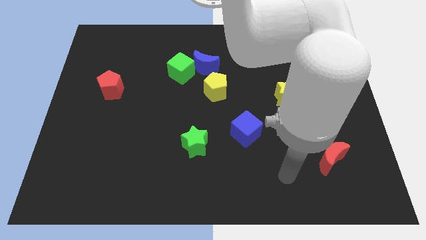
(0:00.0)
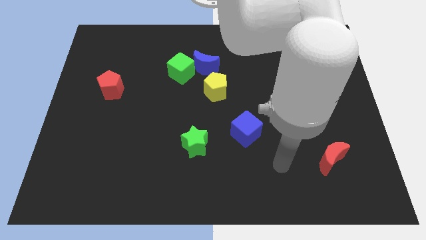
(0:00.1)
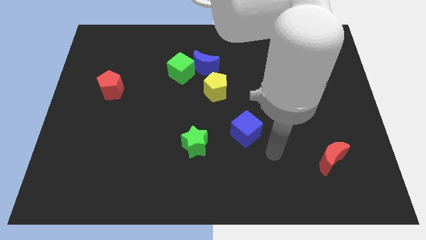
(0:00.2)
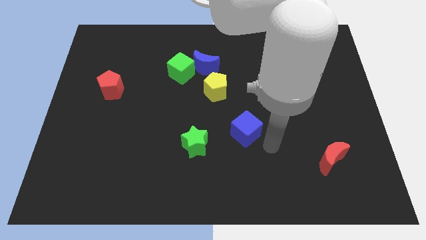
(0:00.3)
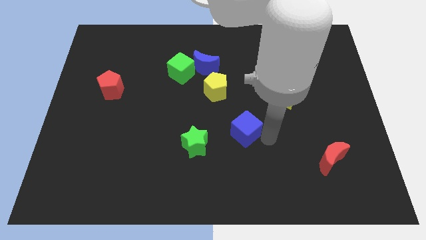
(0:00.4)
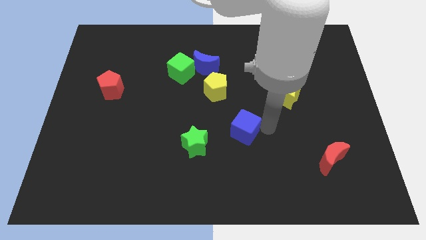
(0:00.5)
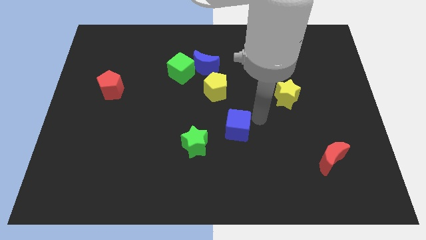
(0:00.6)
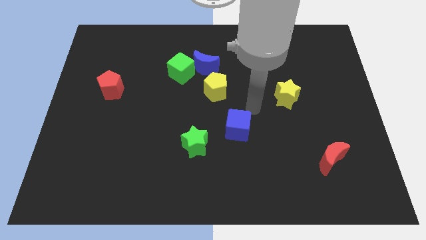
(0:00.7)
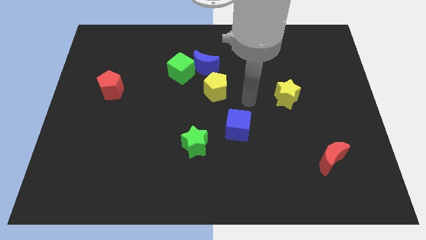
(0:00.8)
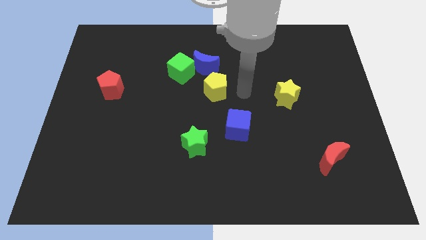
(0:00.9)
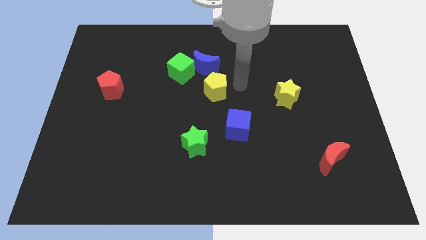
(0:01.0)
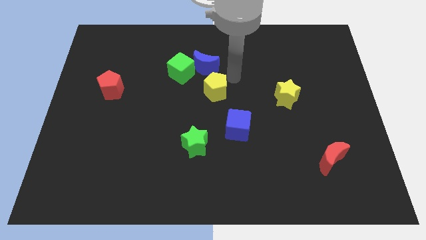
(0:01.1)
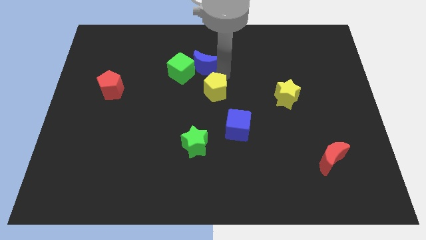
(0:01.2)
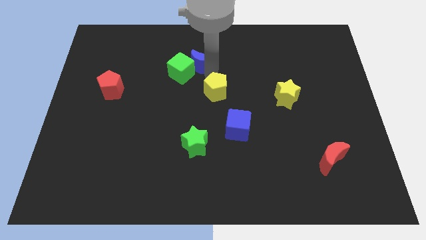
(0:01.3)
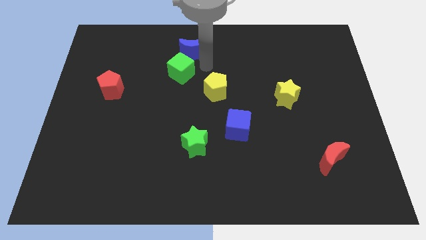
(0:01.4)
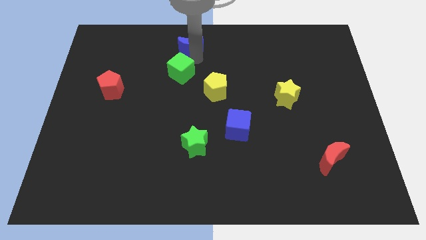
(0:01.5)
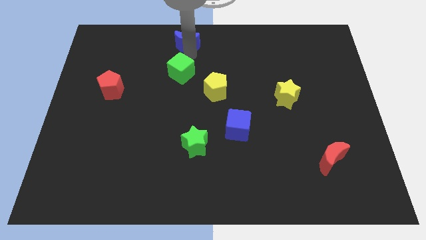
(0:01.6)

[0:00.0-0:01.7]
separate the green cube from the blue moon

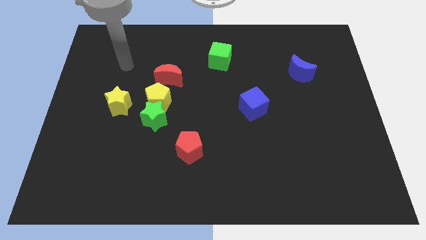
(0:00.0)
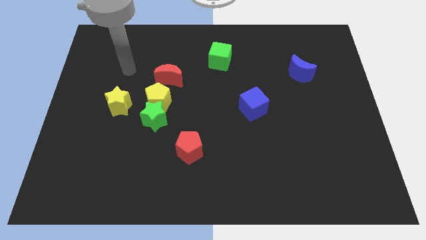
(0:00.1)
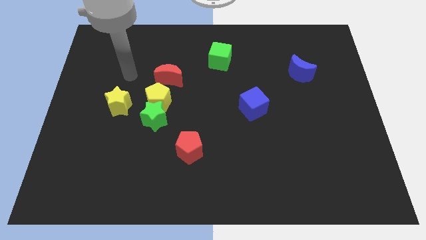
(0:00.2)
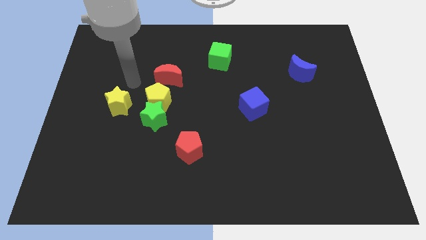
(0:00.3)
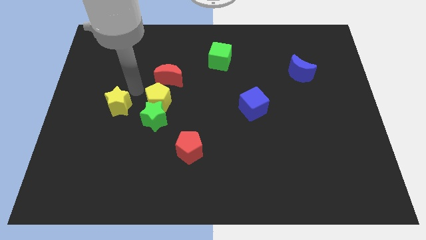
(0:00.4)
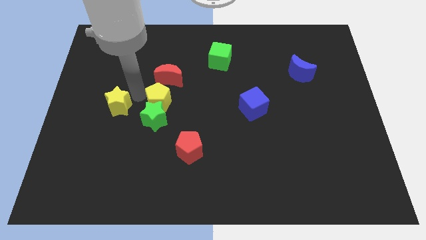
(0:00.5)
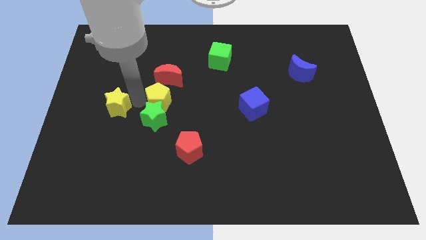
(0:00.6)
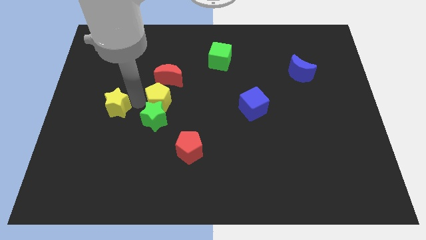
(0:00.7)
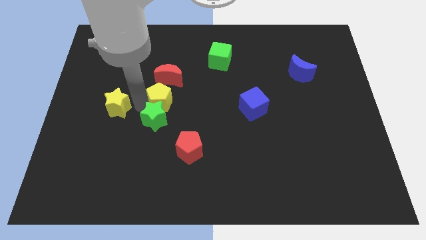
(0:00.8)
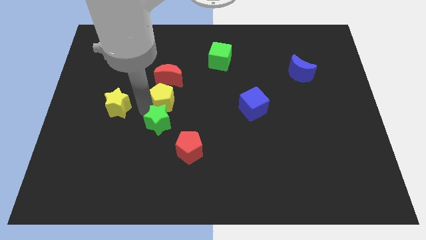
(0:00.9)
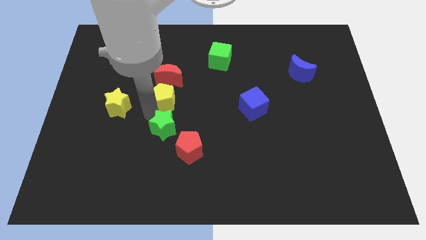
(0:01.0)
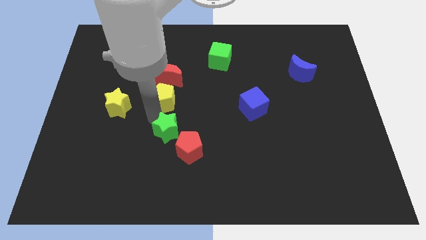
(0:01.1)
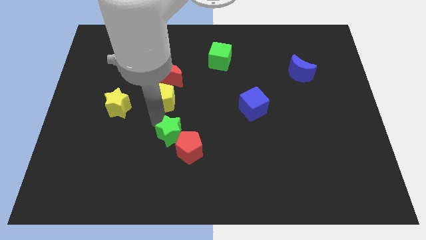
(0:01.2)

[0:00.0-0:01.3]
separate the green star from the yellow pentagon and yellow star

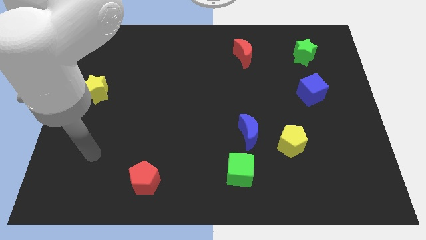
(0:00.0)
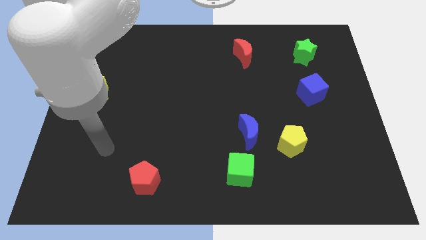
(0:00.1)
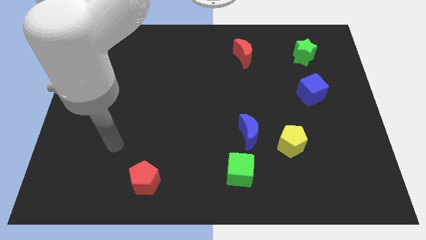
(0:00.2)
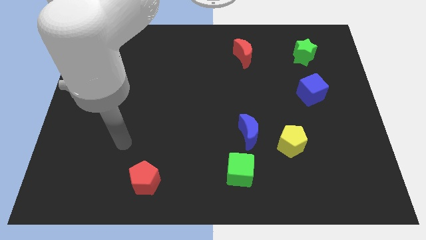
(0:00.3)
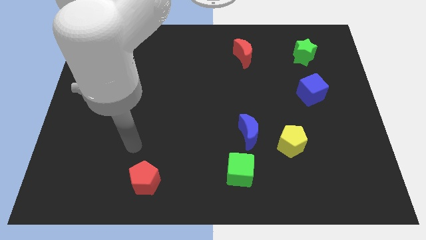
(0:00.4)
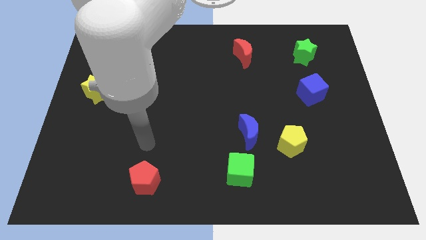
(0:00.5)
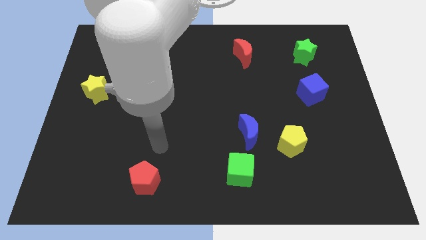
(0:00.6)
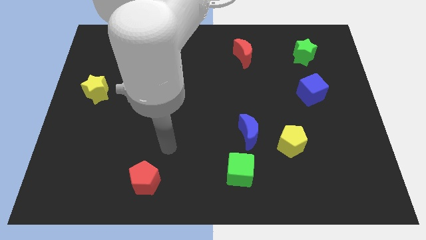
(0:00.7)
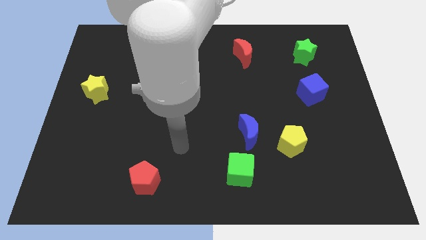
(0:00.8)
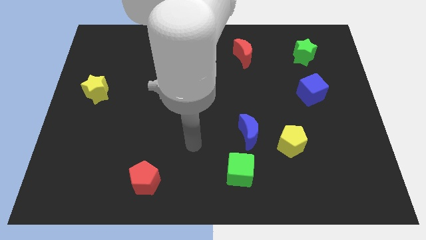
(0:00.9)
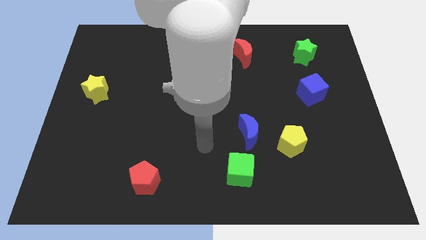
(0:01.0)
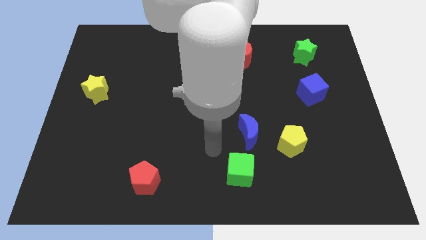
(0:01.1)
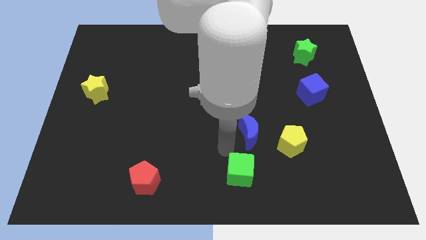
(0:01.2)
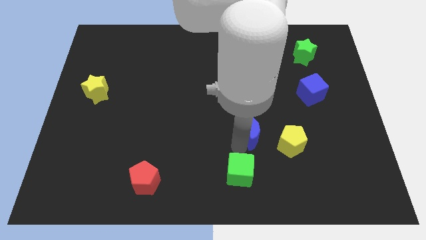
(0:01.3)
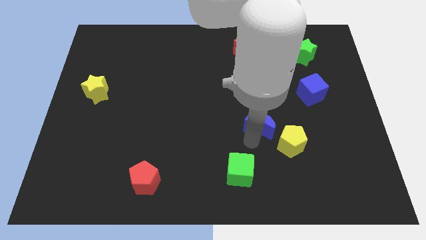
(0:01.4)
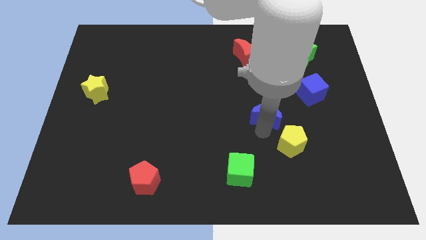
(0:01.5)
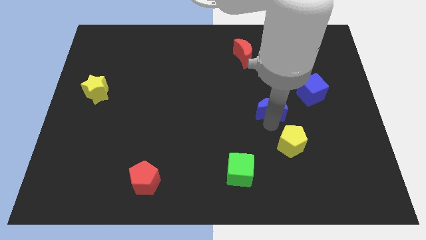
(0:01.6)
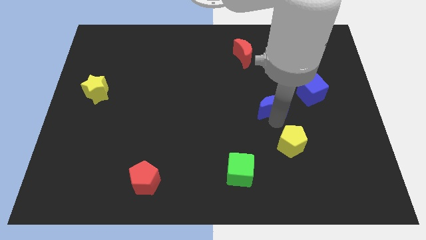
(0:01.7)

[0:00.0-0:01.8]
separate the yellow pentagon from the blue moon

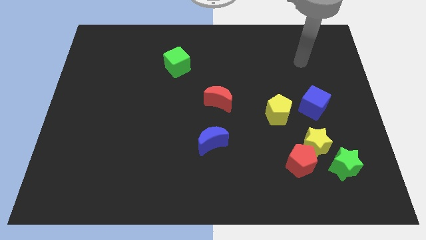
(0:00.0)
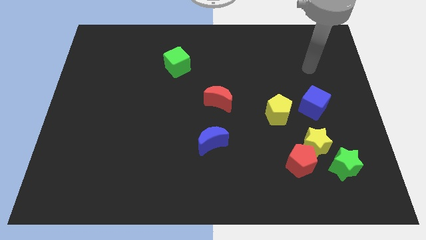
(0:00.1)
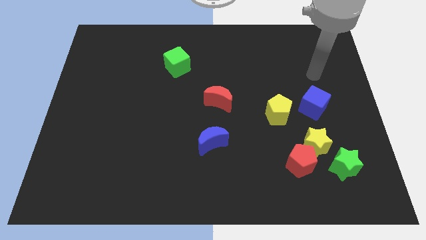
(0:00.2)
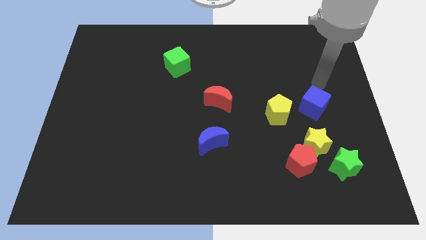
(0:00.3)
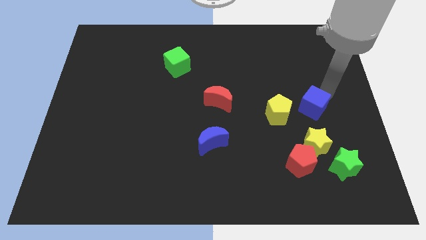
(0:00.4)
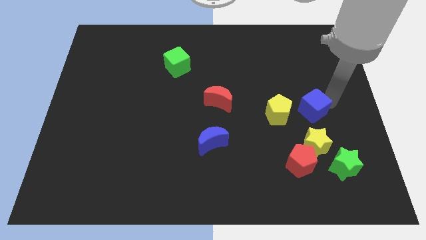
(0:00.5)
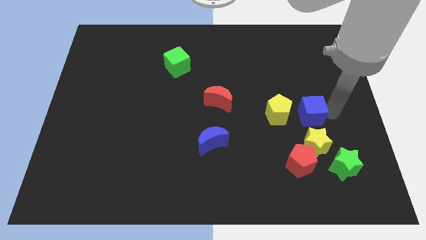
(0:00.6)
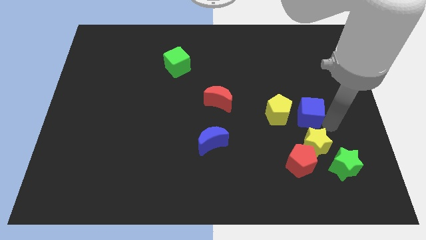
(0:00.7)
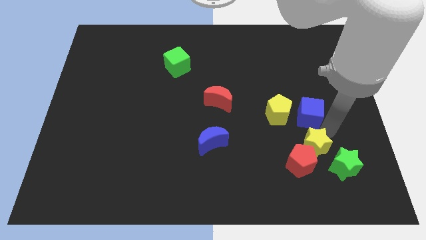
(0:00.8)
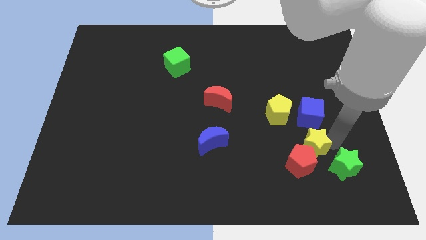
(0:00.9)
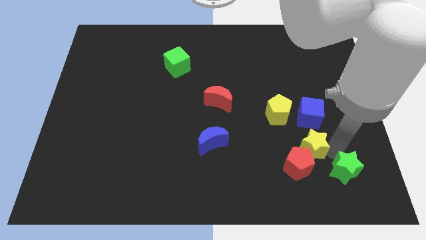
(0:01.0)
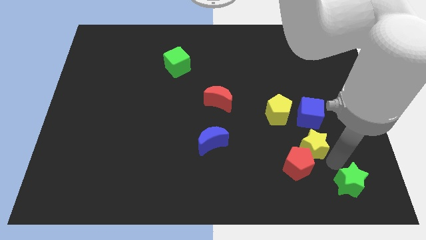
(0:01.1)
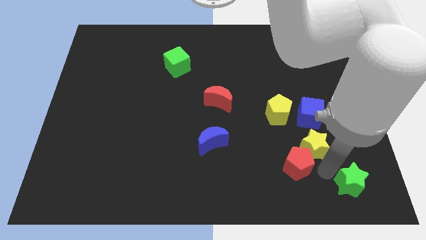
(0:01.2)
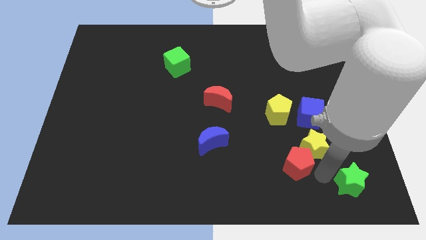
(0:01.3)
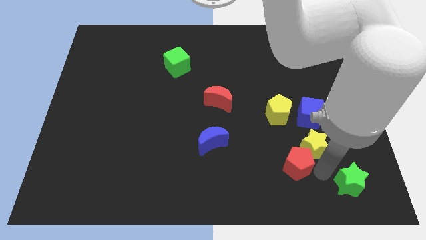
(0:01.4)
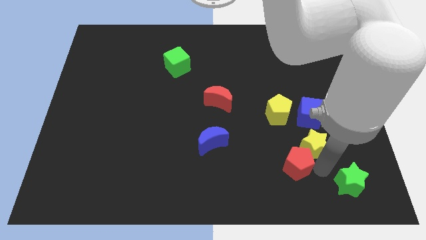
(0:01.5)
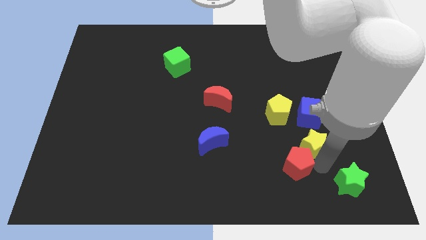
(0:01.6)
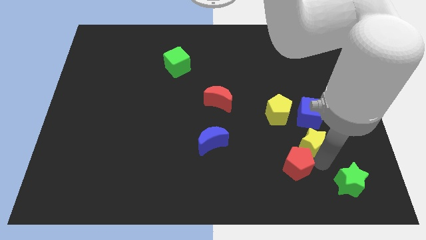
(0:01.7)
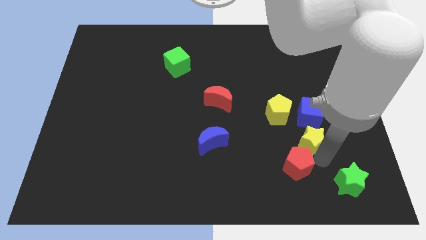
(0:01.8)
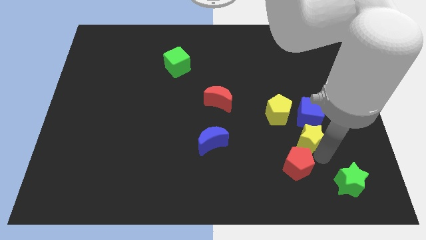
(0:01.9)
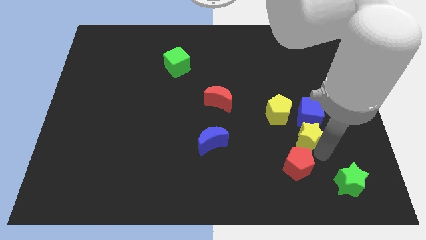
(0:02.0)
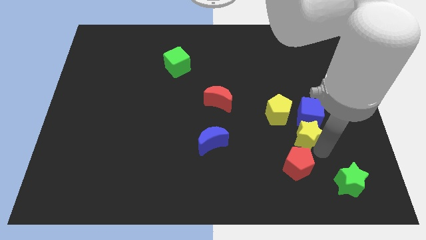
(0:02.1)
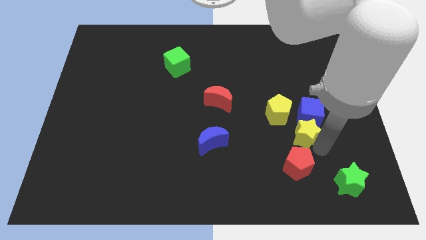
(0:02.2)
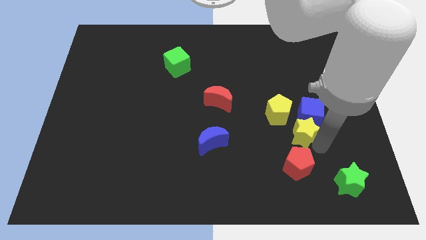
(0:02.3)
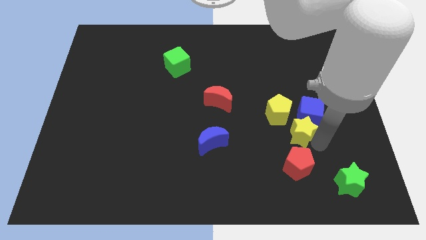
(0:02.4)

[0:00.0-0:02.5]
separate the yellow star from the red pentagon and green star

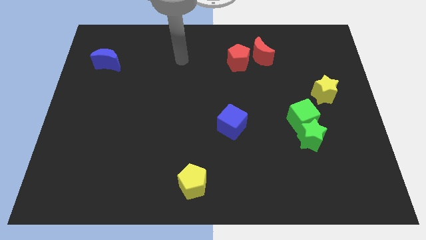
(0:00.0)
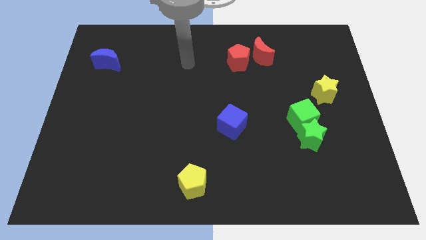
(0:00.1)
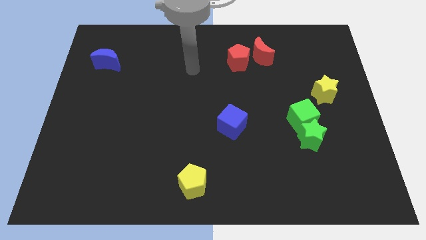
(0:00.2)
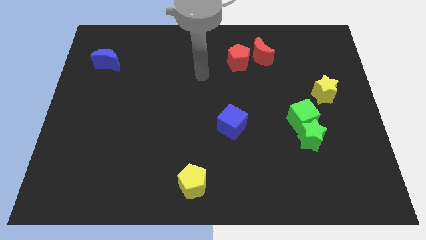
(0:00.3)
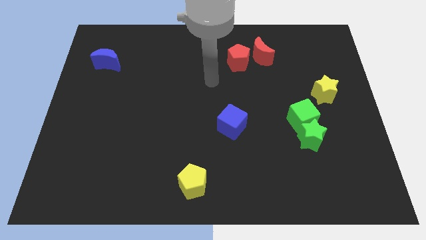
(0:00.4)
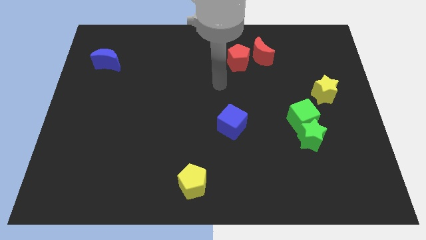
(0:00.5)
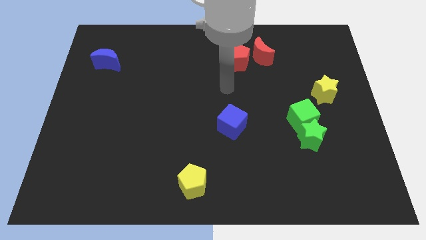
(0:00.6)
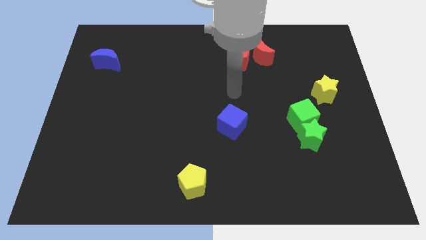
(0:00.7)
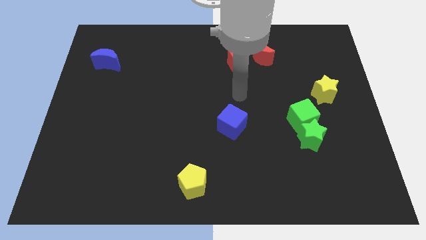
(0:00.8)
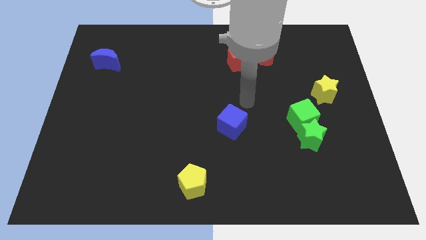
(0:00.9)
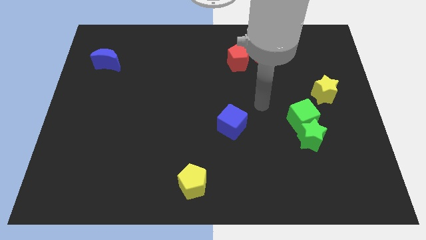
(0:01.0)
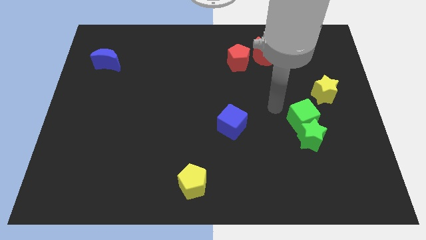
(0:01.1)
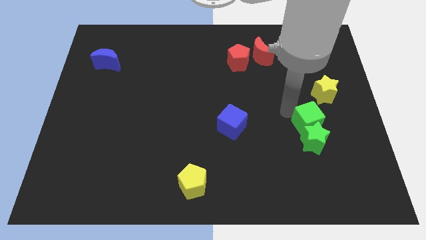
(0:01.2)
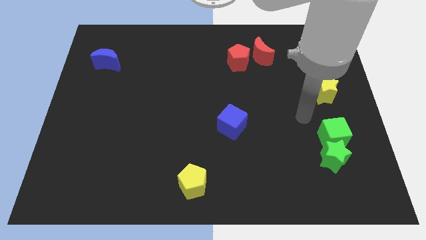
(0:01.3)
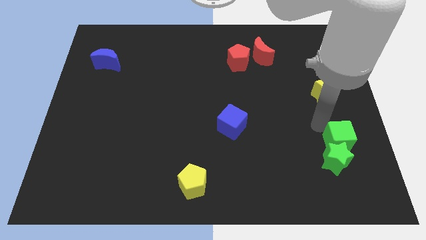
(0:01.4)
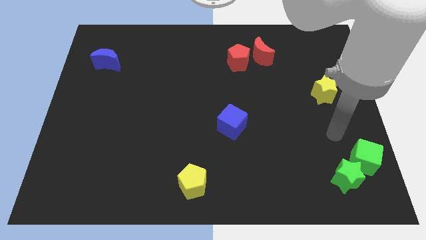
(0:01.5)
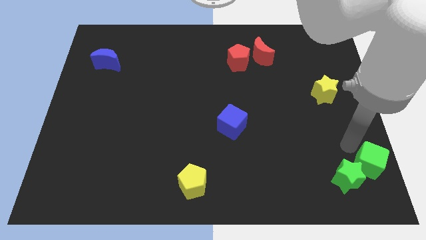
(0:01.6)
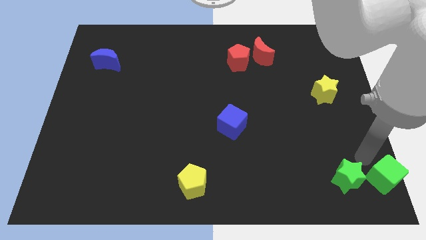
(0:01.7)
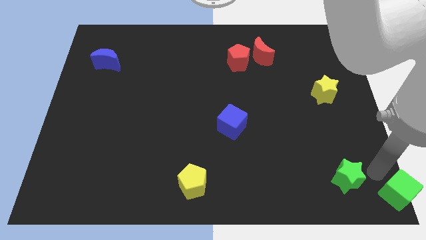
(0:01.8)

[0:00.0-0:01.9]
move the green star away from the green cube

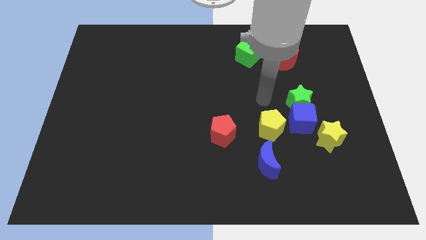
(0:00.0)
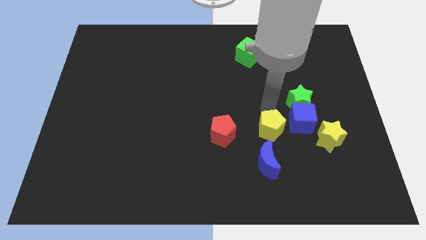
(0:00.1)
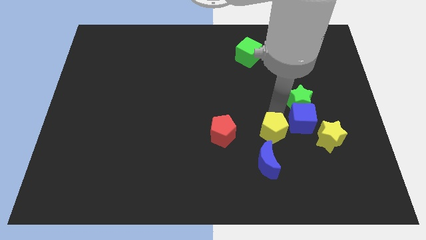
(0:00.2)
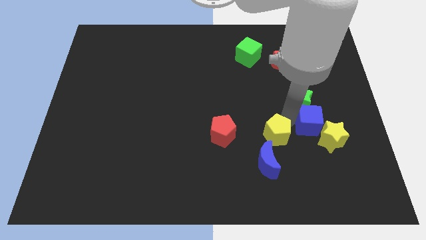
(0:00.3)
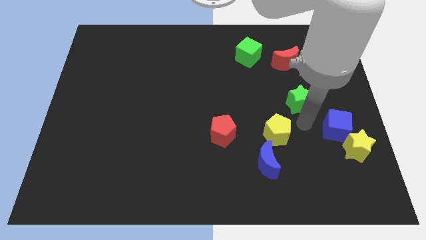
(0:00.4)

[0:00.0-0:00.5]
move the green star away from the blue cube
